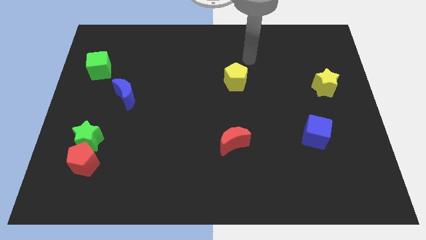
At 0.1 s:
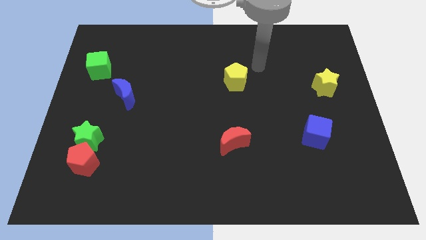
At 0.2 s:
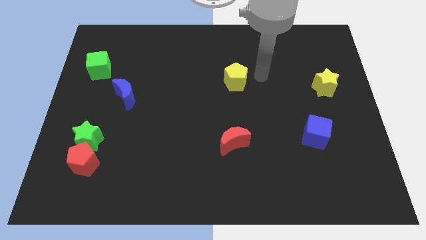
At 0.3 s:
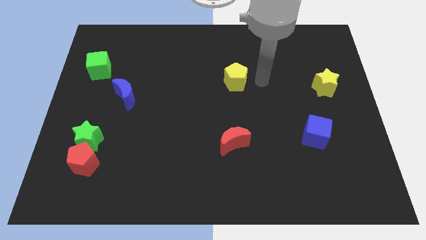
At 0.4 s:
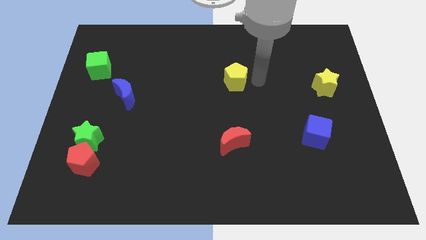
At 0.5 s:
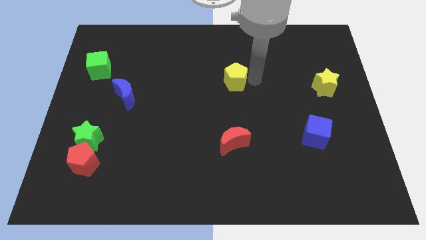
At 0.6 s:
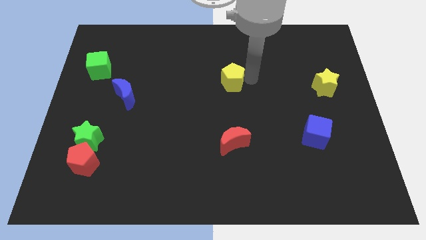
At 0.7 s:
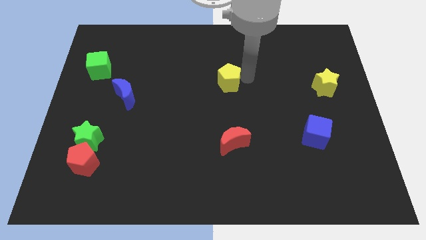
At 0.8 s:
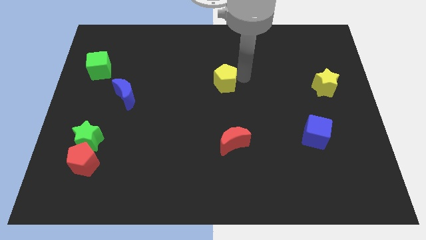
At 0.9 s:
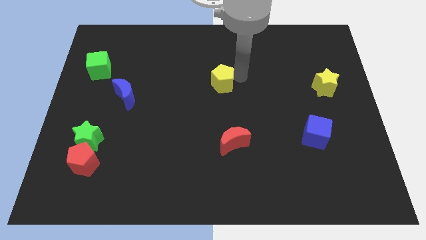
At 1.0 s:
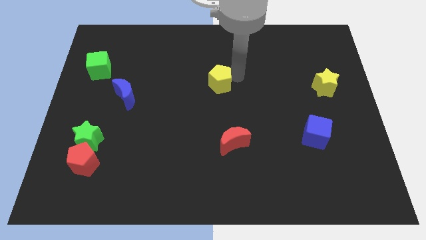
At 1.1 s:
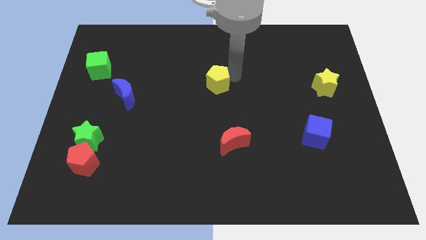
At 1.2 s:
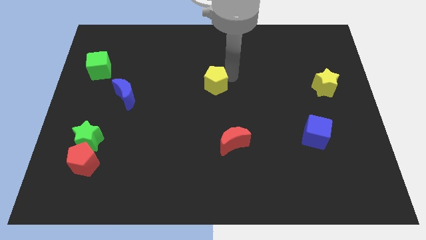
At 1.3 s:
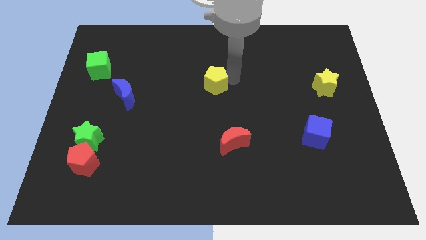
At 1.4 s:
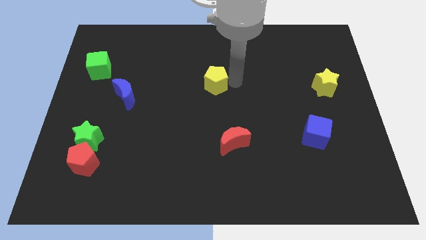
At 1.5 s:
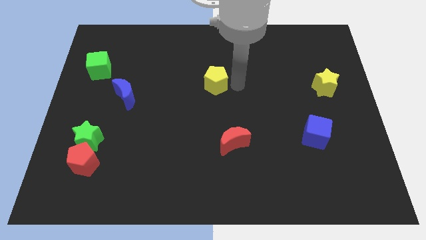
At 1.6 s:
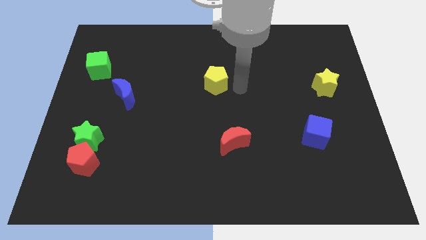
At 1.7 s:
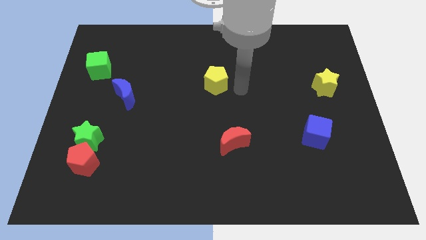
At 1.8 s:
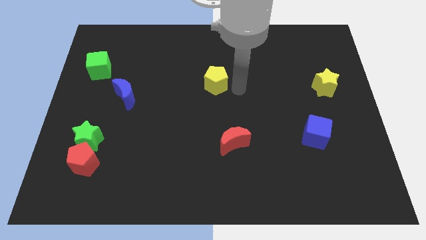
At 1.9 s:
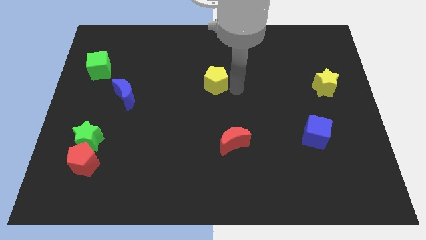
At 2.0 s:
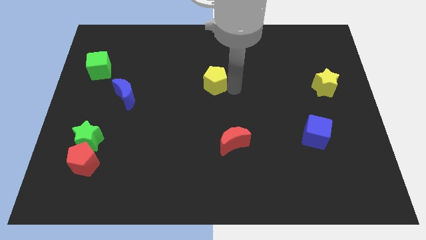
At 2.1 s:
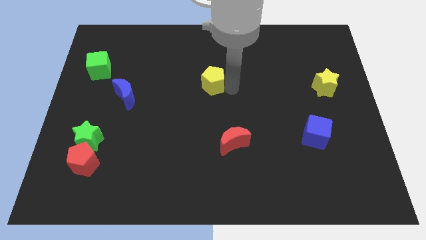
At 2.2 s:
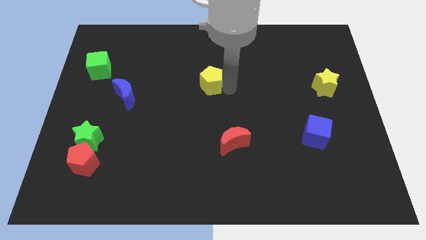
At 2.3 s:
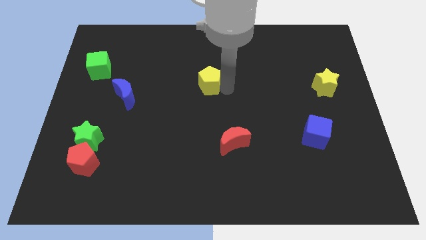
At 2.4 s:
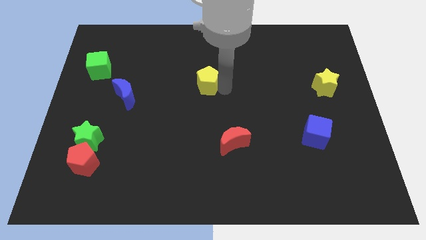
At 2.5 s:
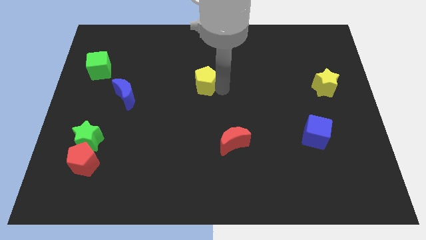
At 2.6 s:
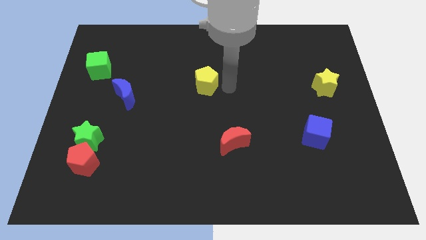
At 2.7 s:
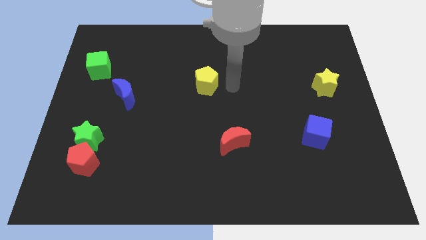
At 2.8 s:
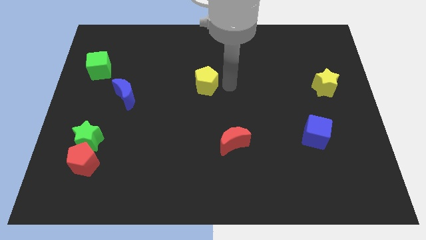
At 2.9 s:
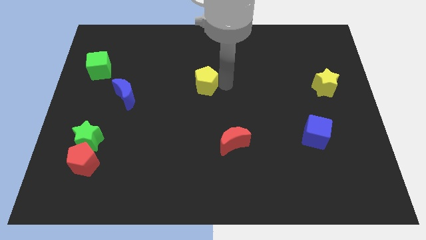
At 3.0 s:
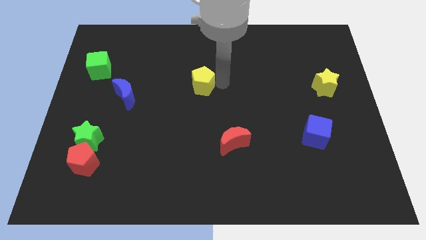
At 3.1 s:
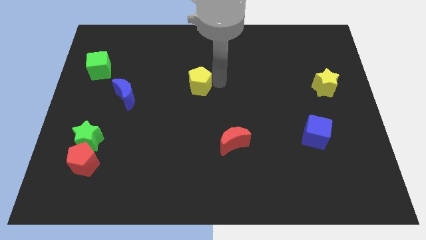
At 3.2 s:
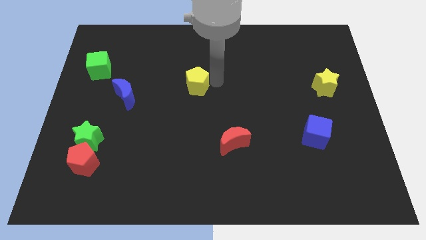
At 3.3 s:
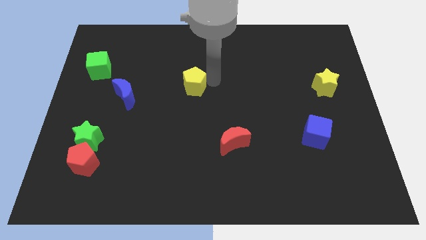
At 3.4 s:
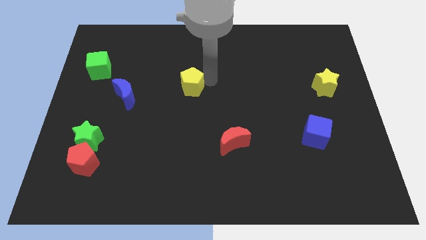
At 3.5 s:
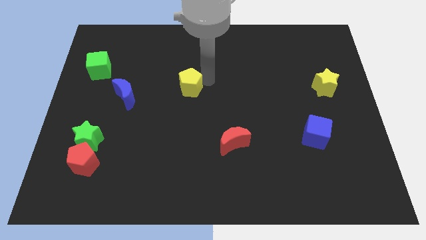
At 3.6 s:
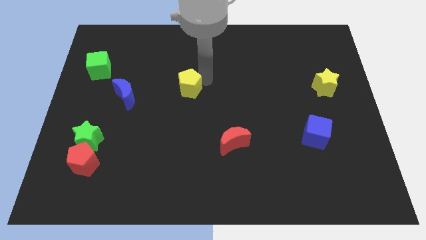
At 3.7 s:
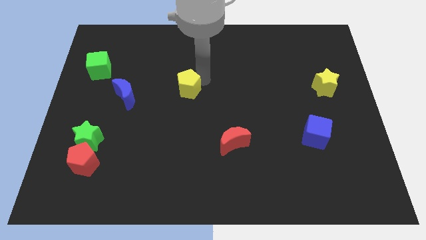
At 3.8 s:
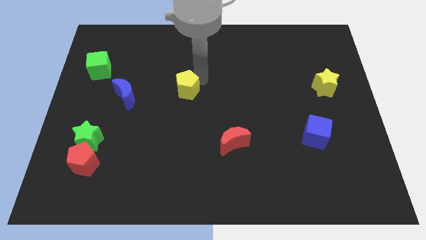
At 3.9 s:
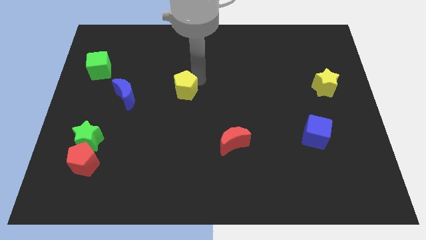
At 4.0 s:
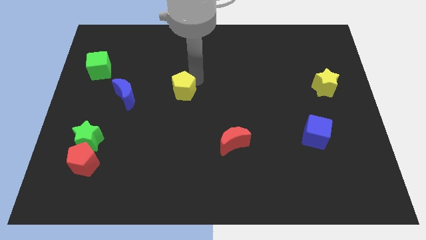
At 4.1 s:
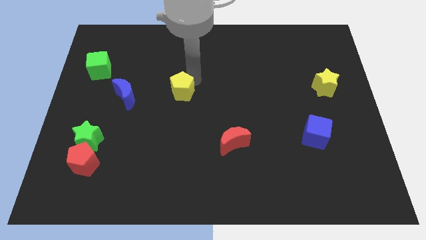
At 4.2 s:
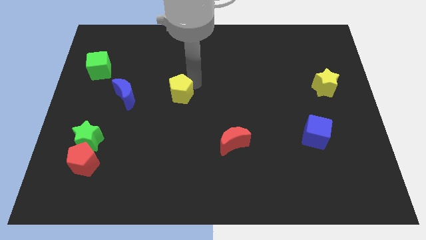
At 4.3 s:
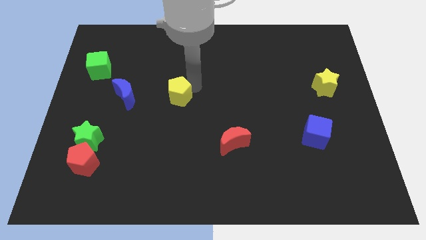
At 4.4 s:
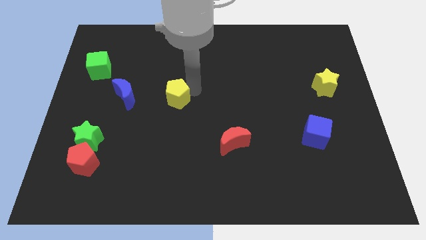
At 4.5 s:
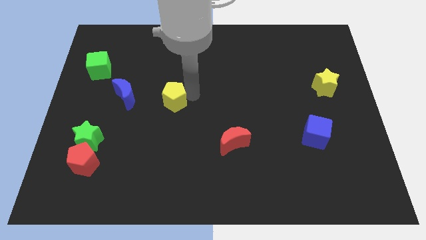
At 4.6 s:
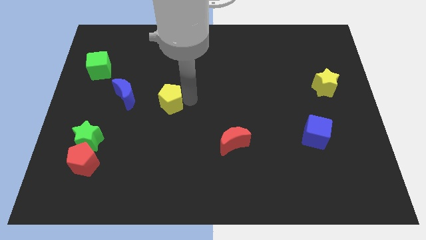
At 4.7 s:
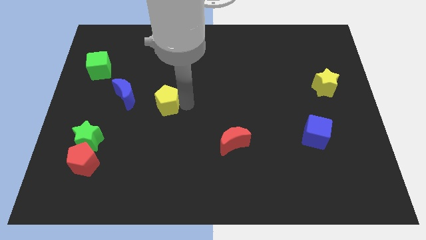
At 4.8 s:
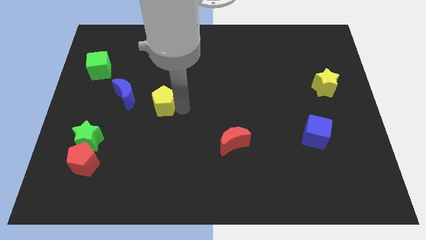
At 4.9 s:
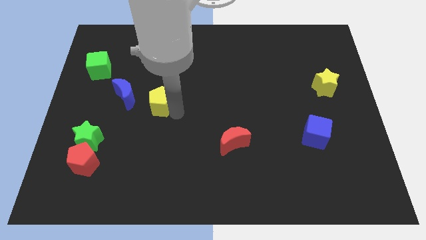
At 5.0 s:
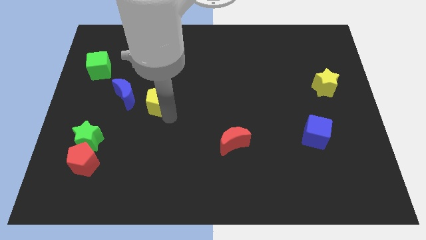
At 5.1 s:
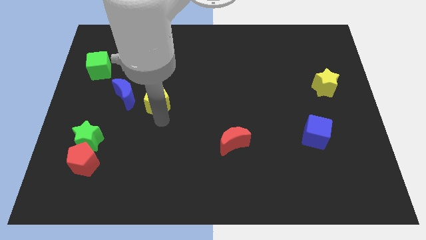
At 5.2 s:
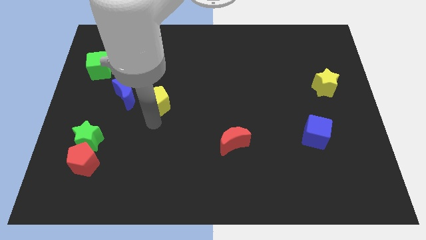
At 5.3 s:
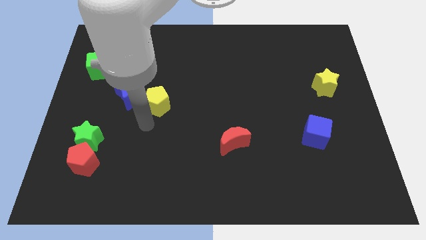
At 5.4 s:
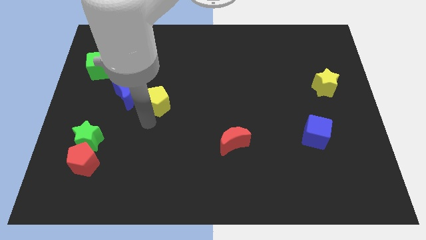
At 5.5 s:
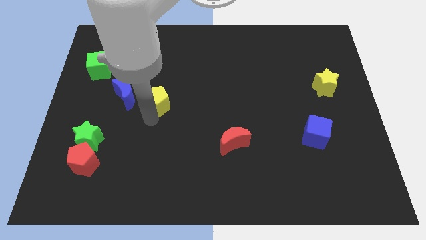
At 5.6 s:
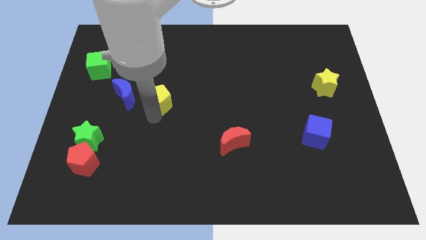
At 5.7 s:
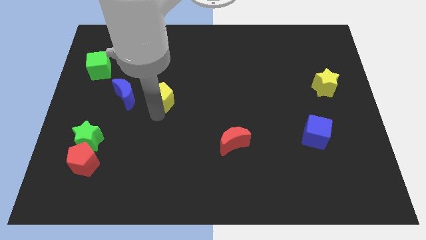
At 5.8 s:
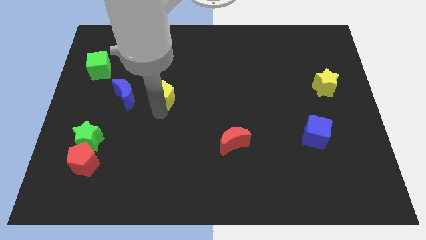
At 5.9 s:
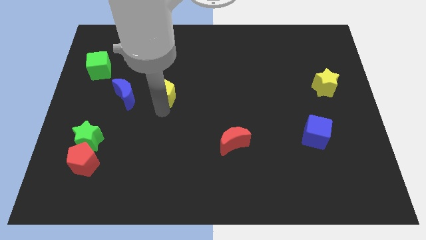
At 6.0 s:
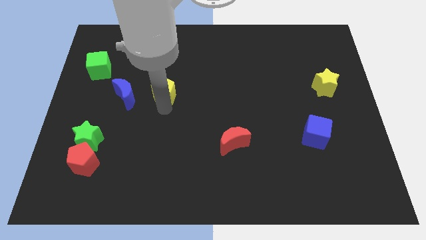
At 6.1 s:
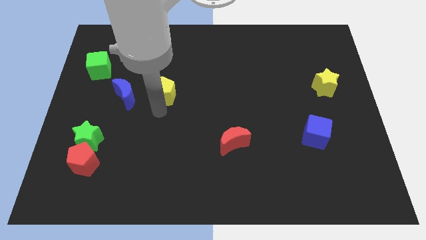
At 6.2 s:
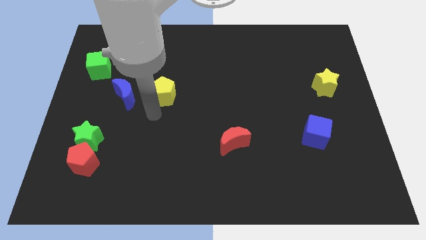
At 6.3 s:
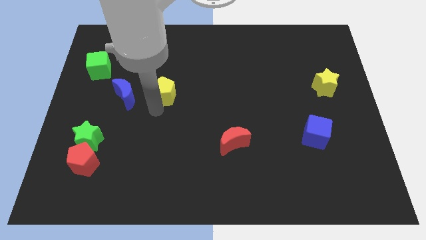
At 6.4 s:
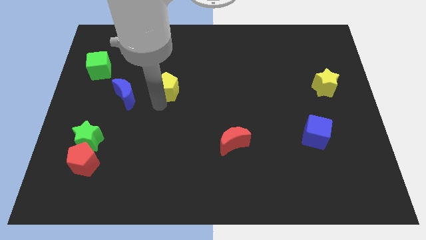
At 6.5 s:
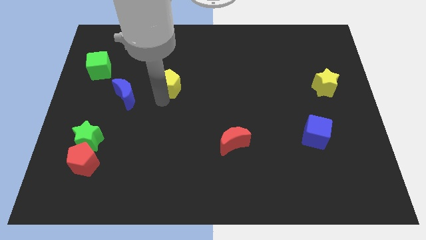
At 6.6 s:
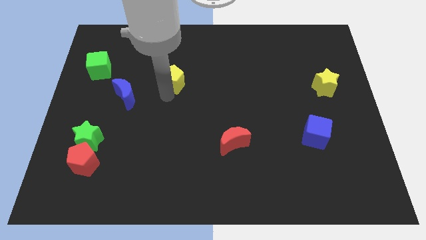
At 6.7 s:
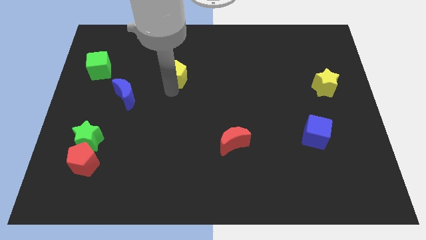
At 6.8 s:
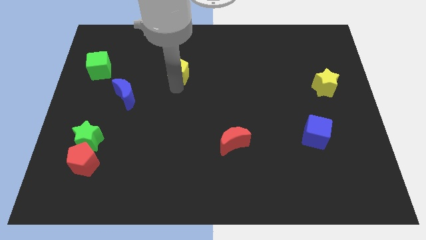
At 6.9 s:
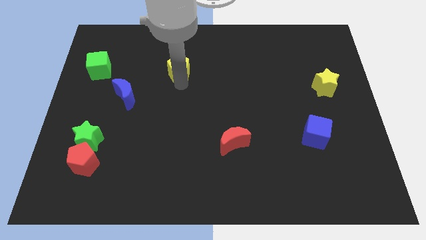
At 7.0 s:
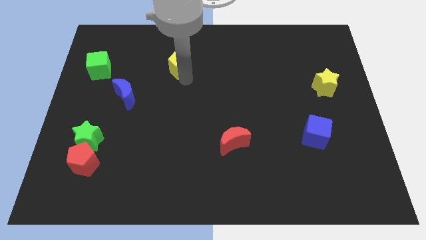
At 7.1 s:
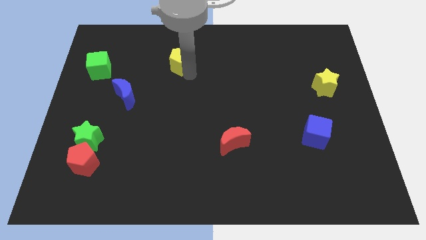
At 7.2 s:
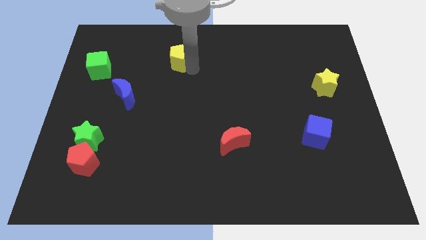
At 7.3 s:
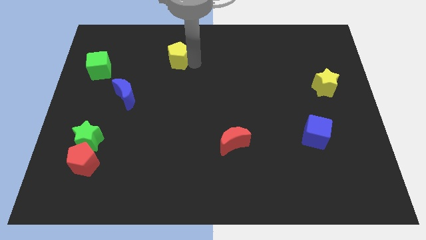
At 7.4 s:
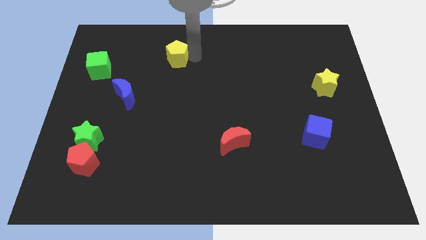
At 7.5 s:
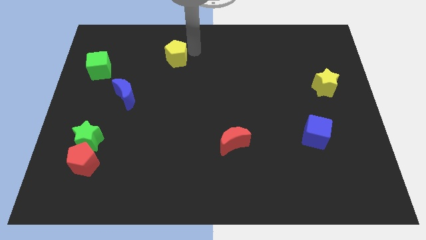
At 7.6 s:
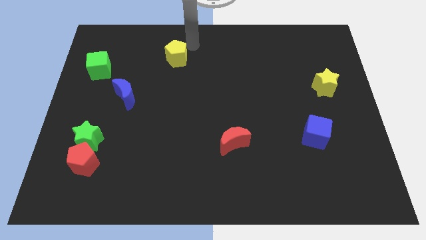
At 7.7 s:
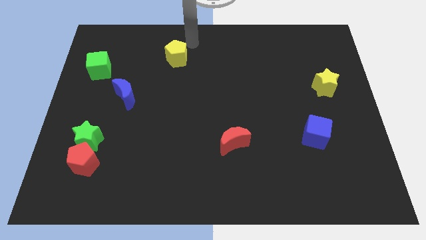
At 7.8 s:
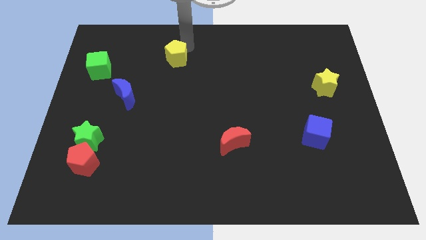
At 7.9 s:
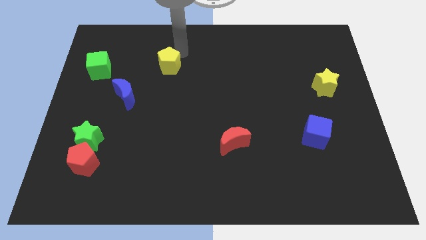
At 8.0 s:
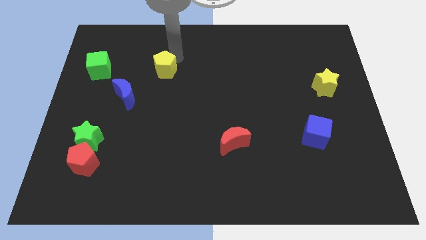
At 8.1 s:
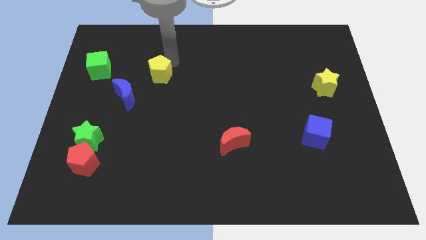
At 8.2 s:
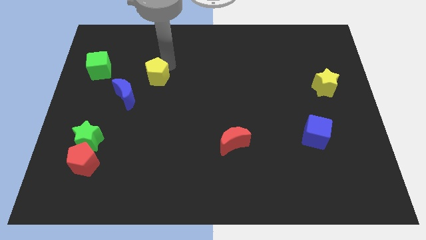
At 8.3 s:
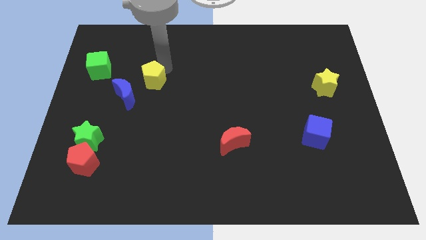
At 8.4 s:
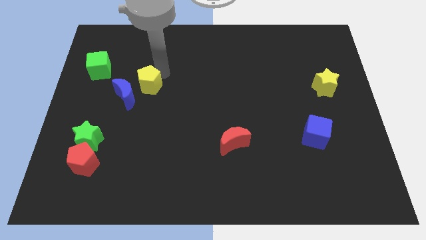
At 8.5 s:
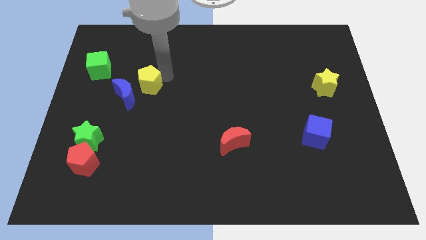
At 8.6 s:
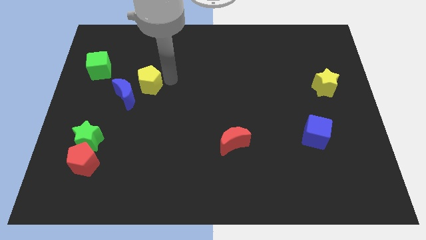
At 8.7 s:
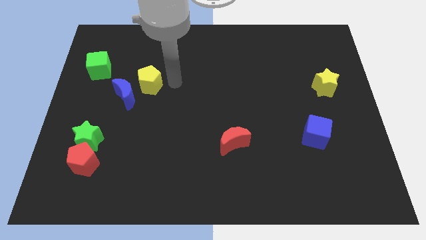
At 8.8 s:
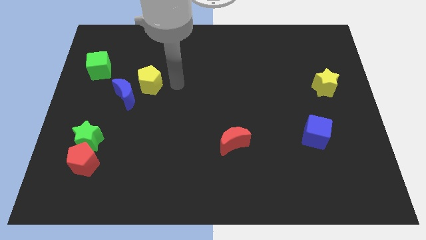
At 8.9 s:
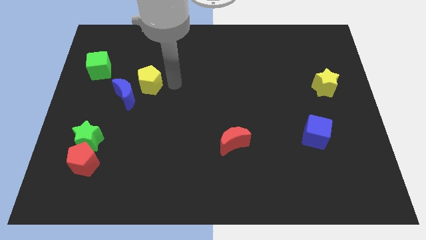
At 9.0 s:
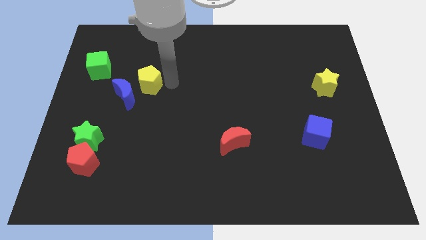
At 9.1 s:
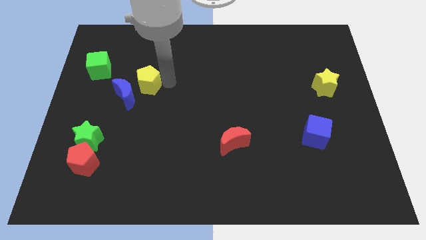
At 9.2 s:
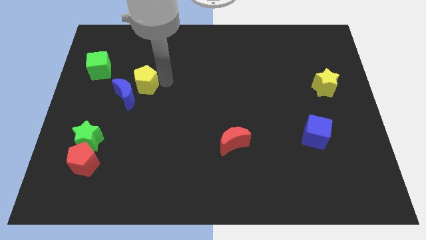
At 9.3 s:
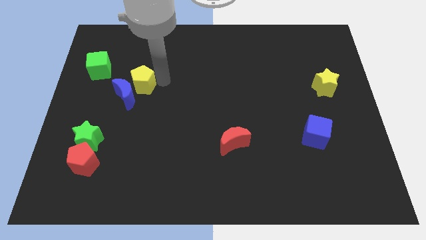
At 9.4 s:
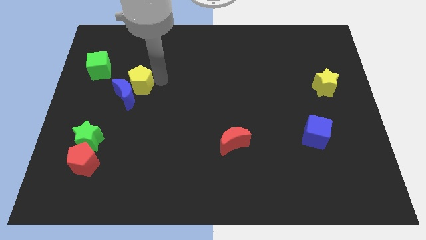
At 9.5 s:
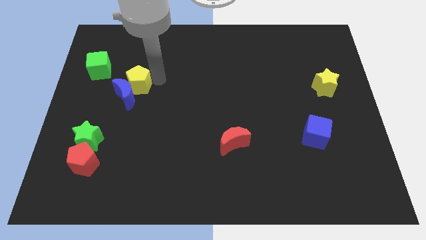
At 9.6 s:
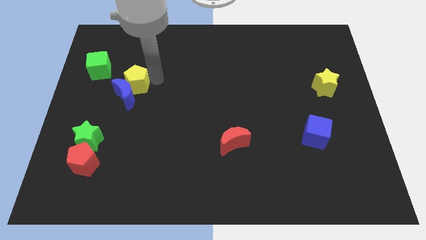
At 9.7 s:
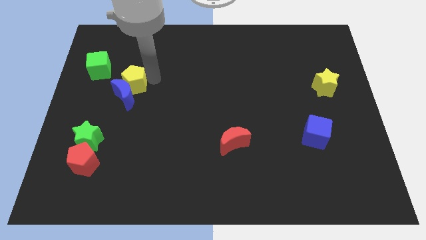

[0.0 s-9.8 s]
push the yellow pentagon to the top left side of the blue moon
